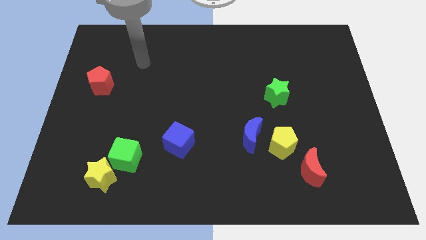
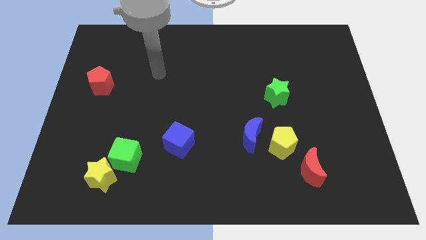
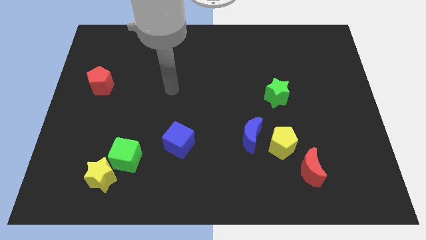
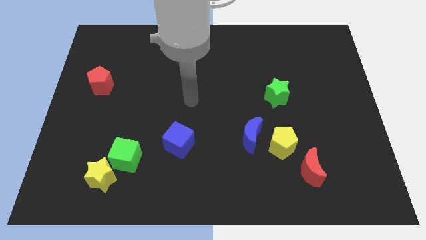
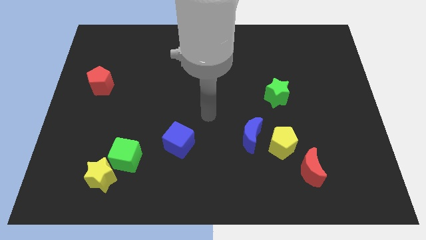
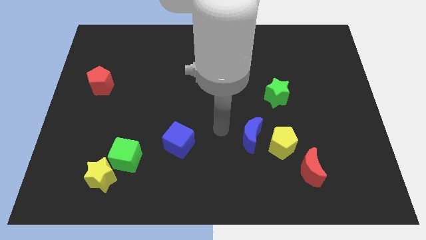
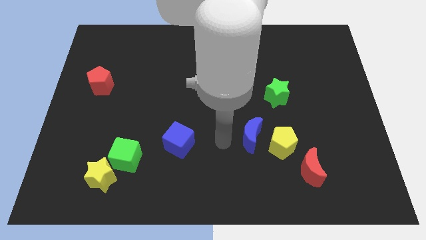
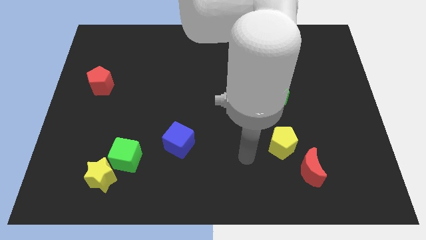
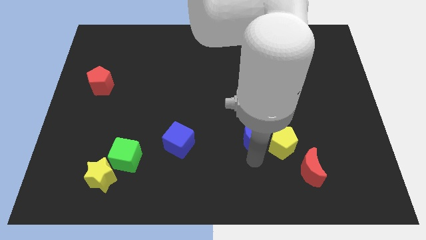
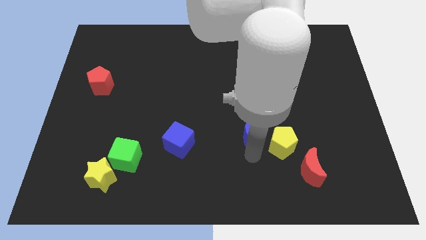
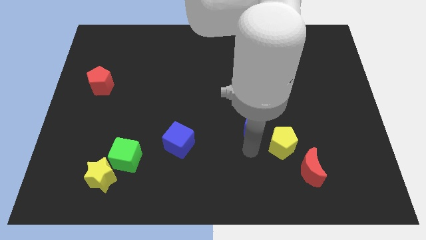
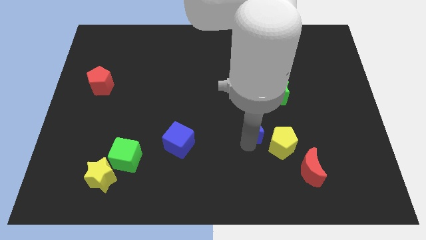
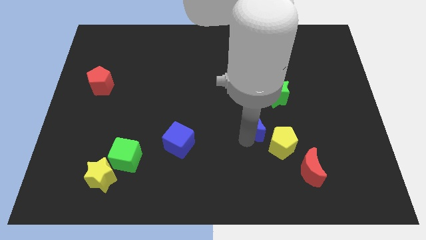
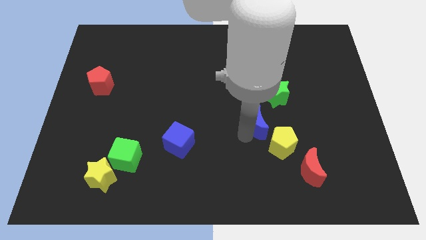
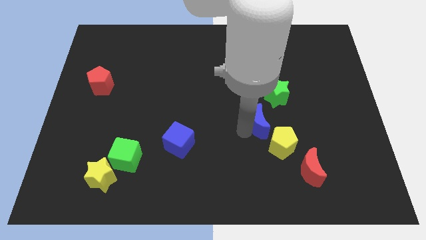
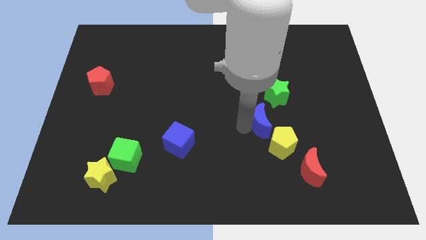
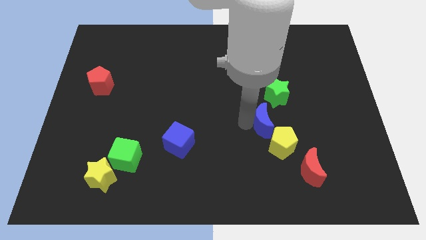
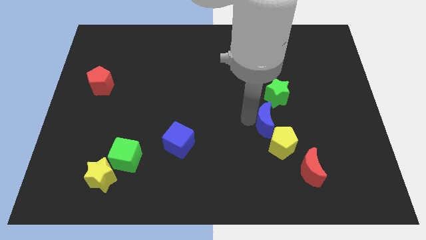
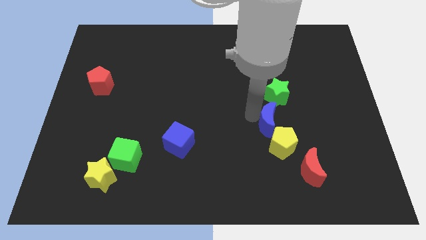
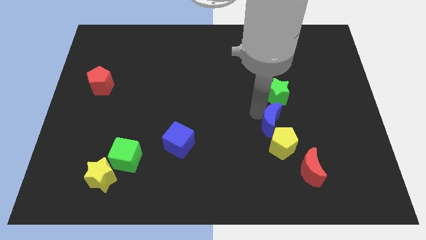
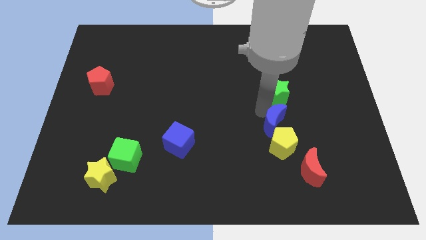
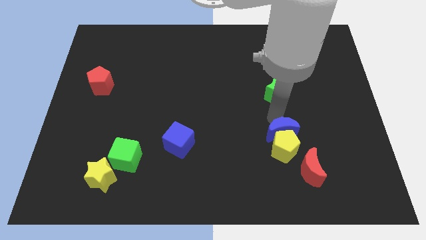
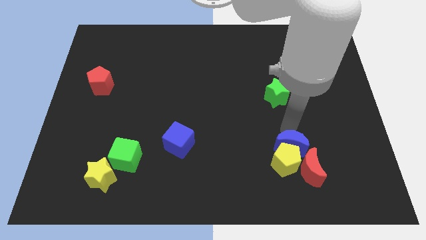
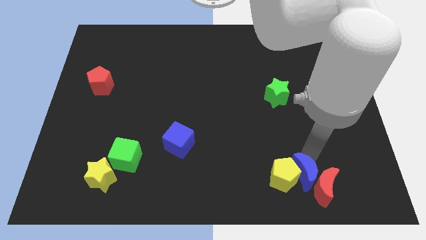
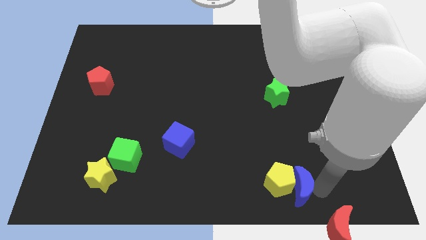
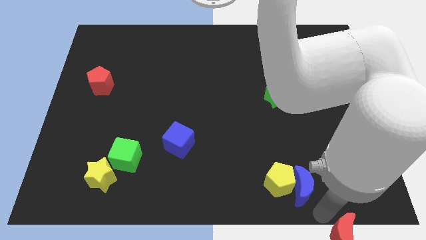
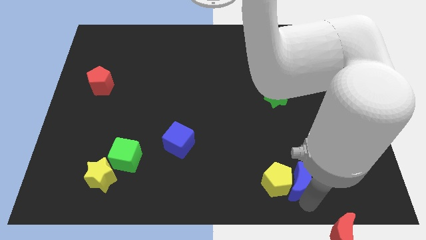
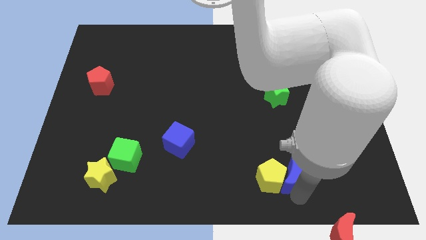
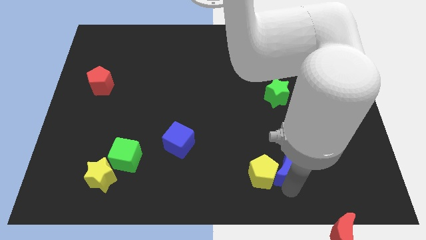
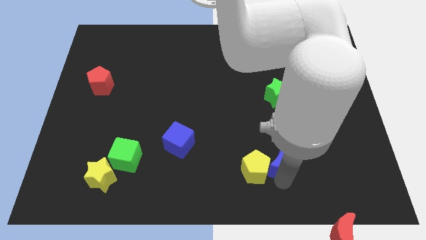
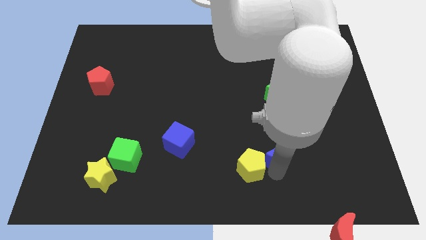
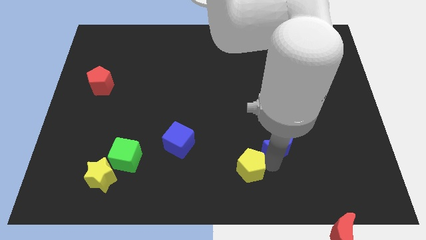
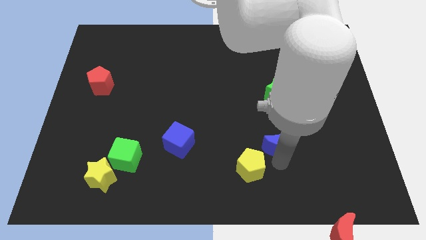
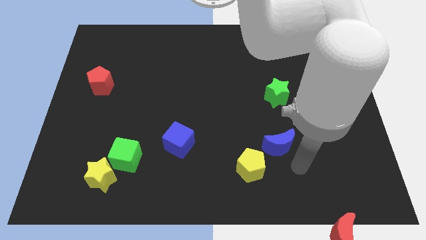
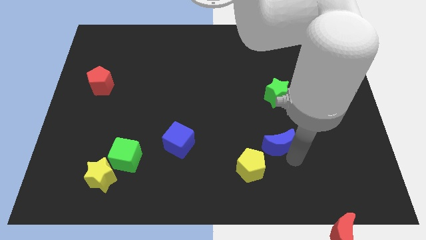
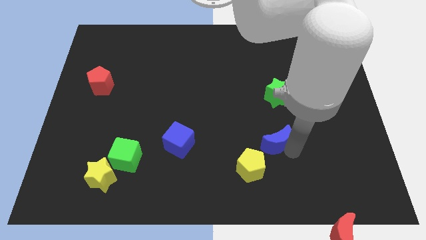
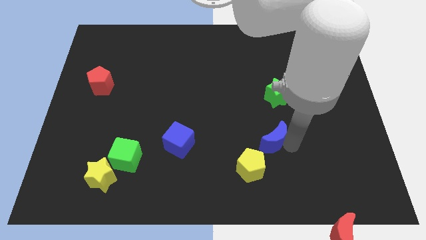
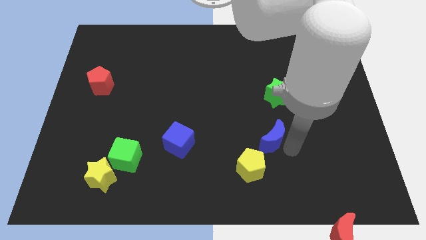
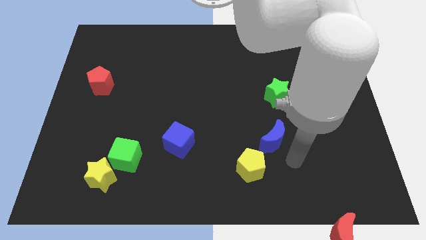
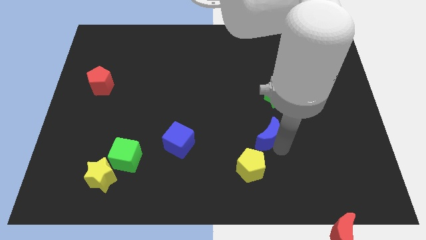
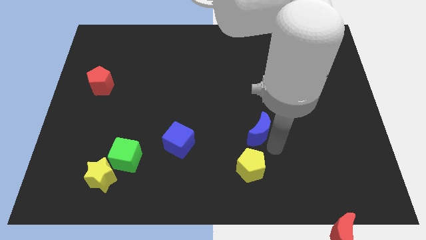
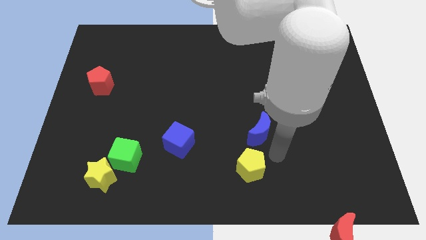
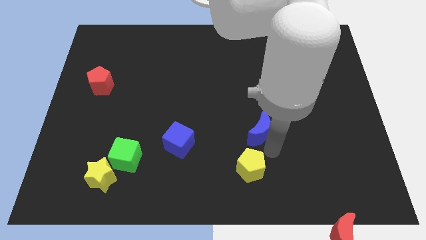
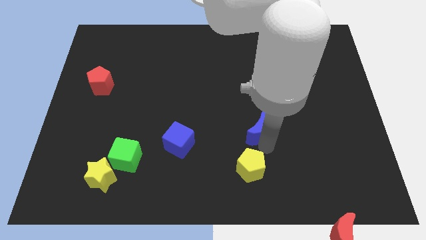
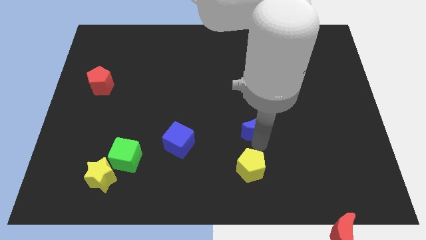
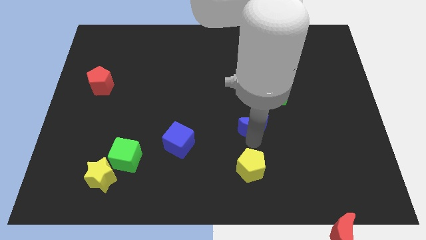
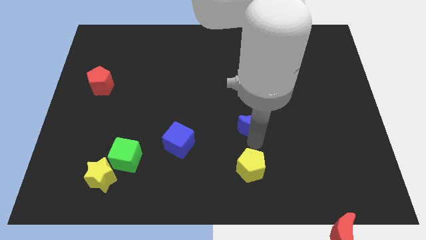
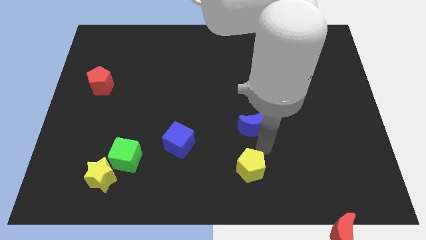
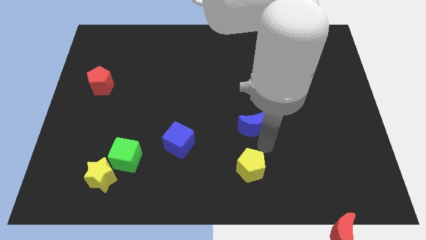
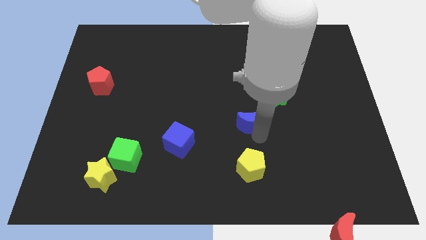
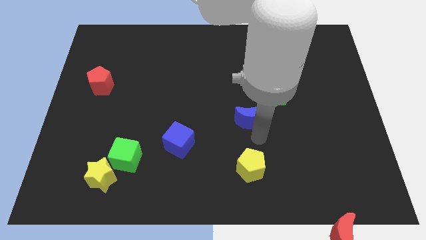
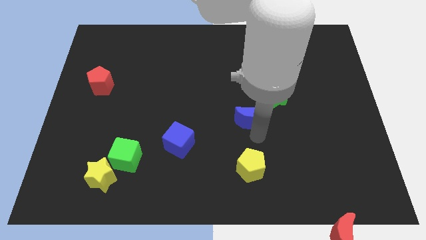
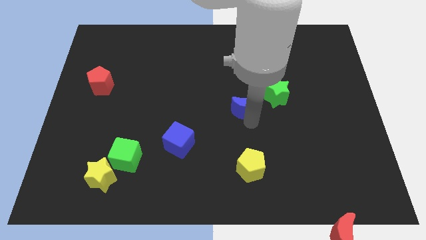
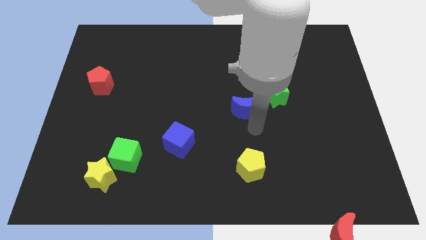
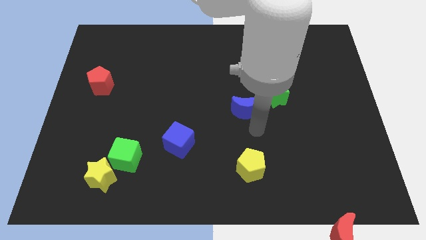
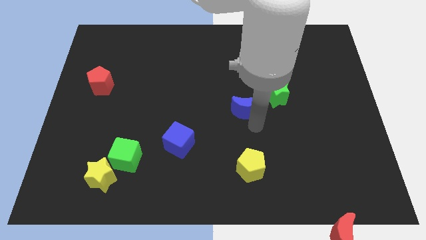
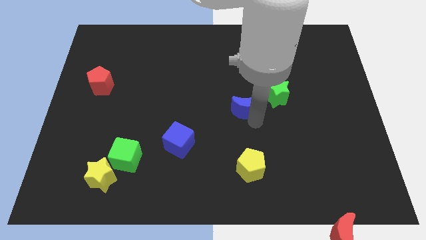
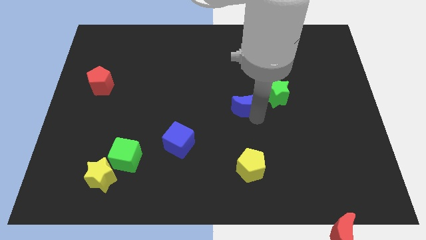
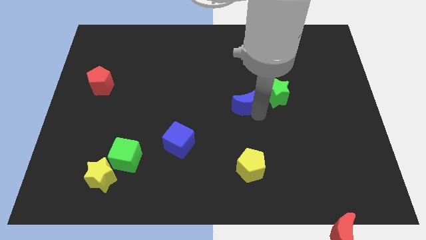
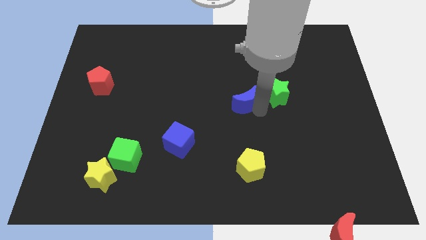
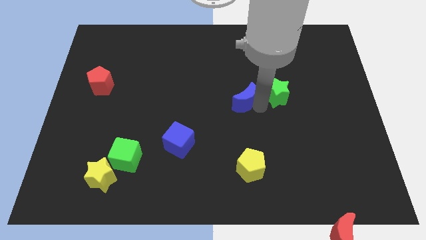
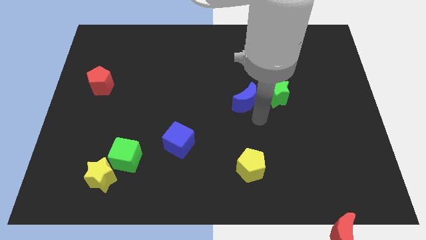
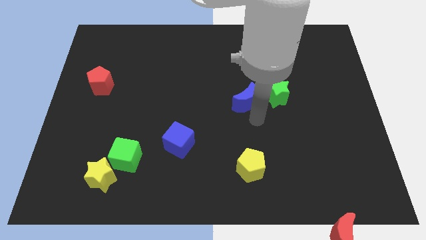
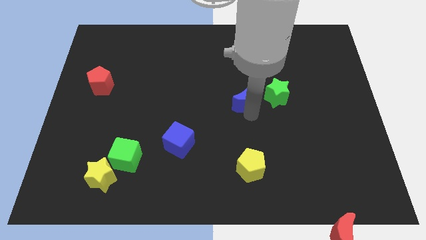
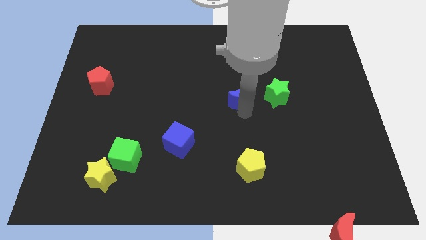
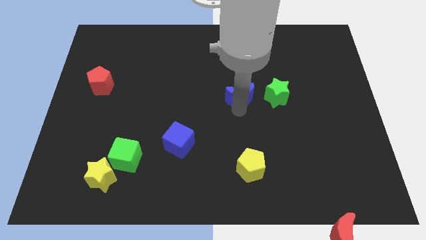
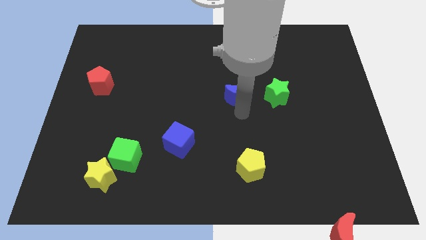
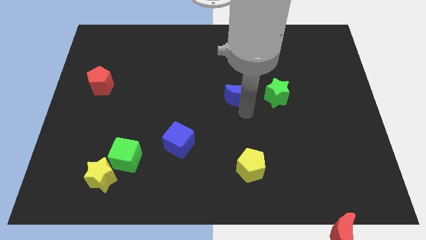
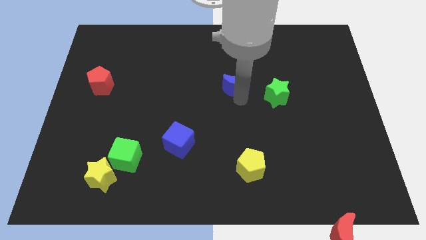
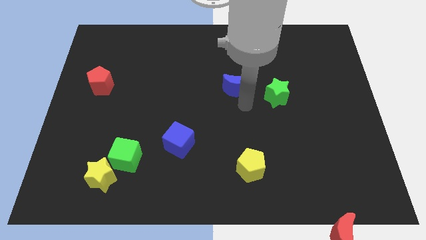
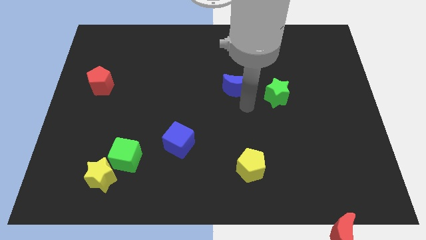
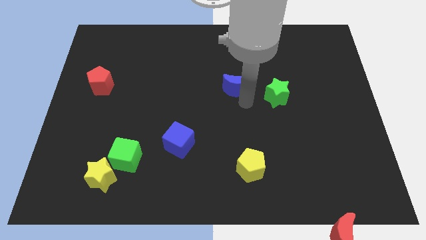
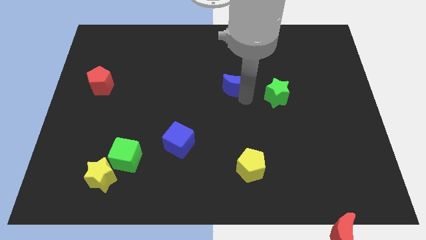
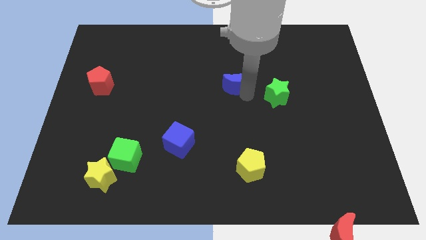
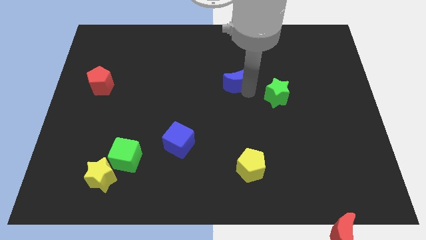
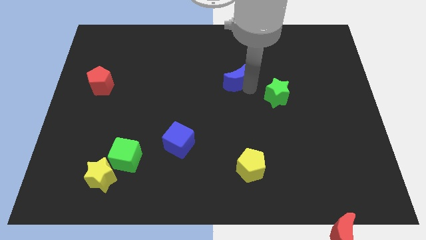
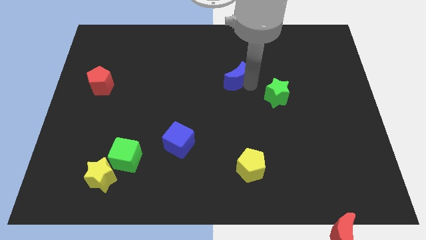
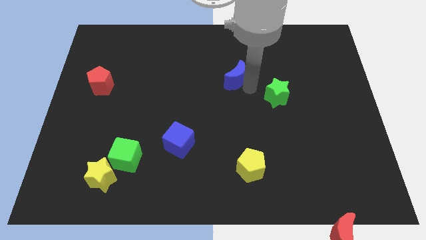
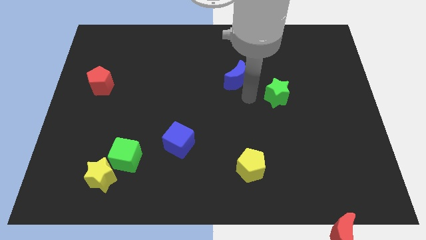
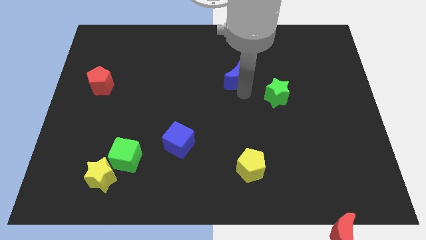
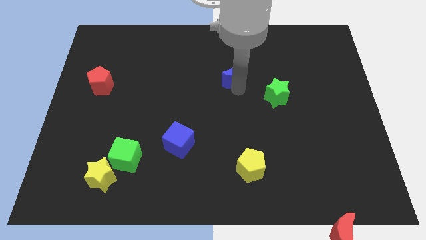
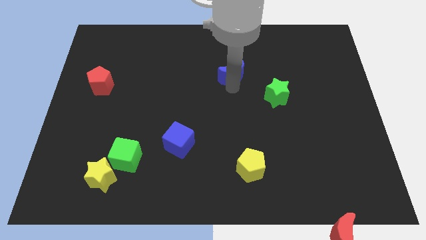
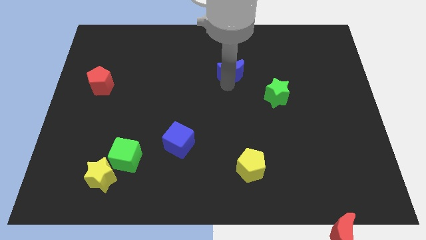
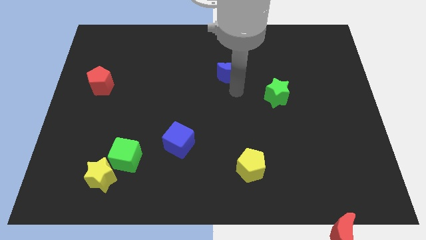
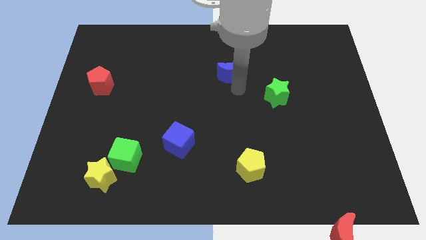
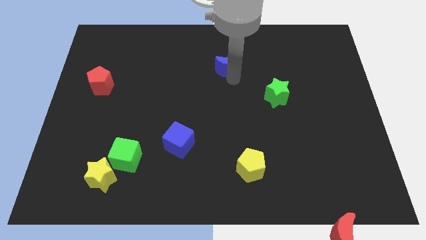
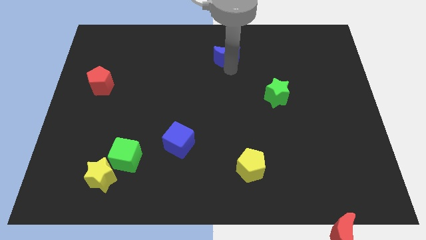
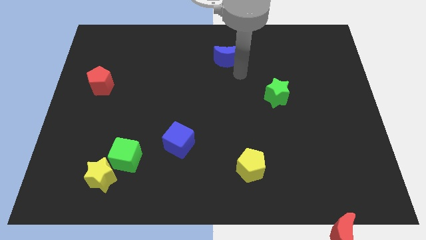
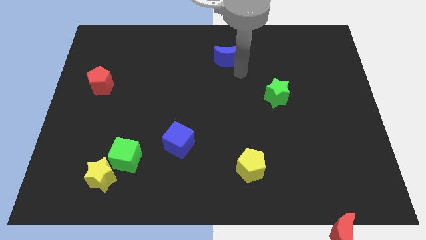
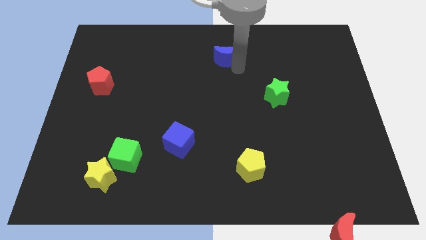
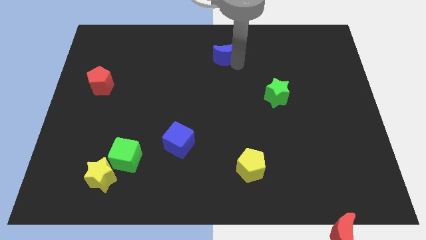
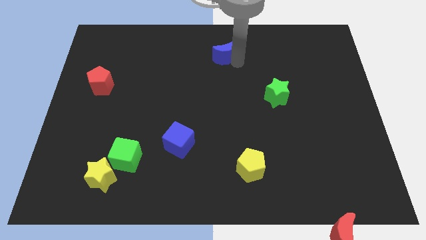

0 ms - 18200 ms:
move the blue moon to the top side
